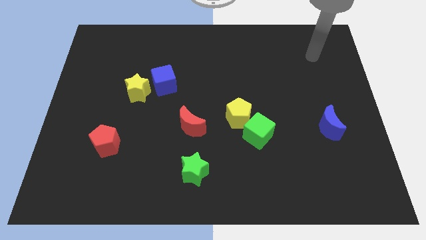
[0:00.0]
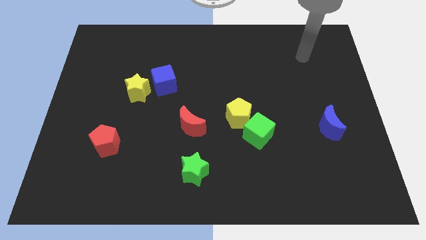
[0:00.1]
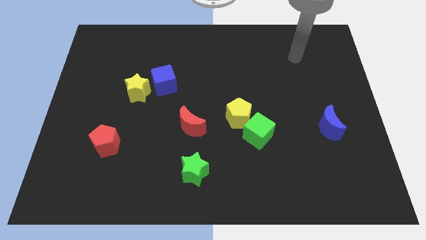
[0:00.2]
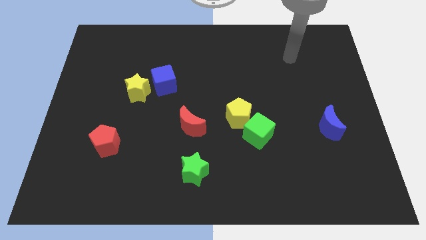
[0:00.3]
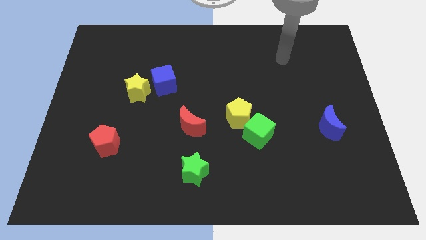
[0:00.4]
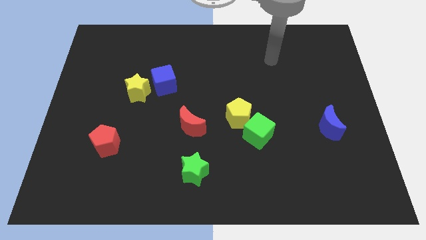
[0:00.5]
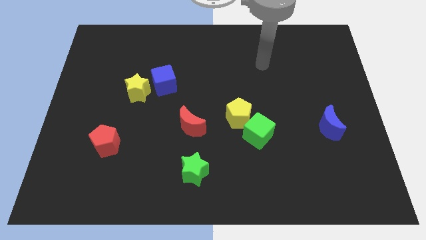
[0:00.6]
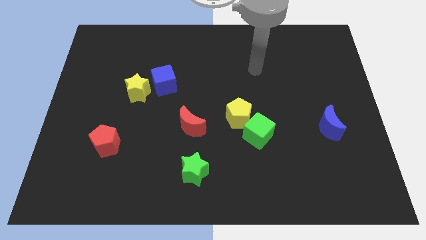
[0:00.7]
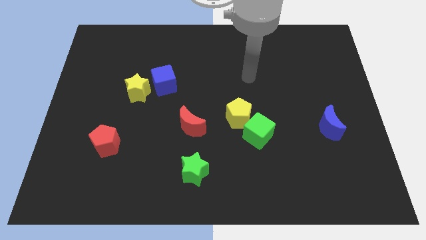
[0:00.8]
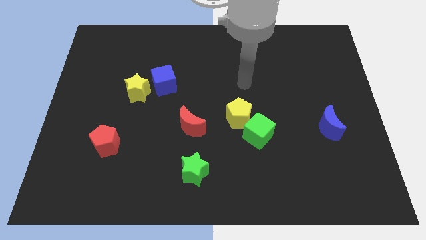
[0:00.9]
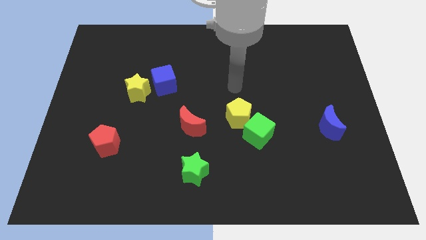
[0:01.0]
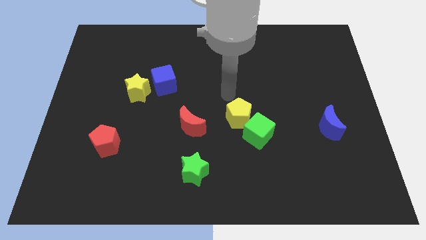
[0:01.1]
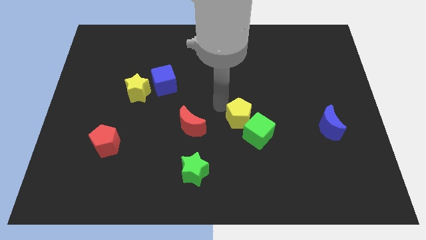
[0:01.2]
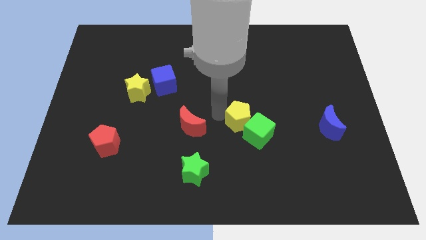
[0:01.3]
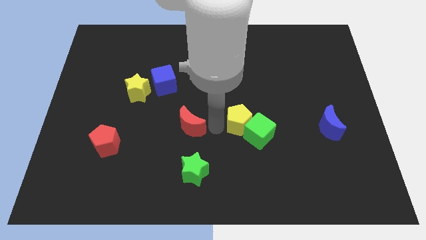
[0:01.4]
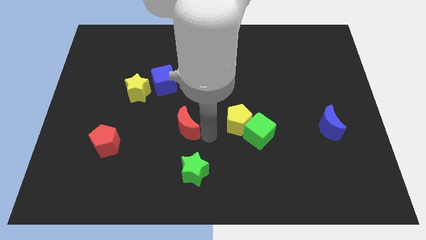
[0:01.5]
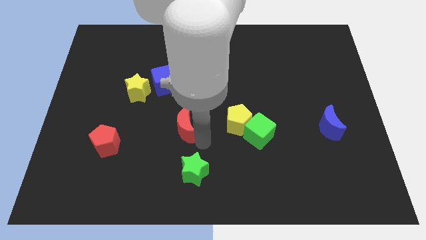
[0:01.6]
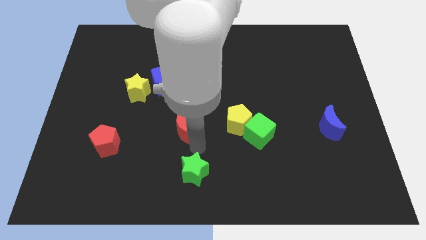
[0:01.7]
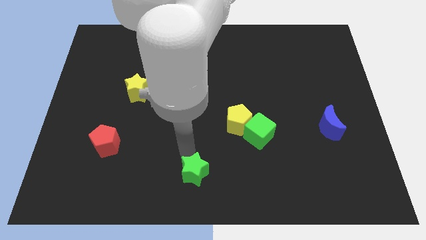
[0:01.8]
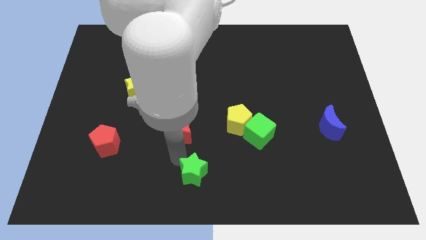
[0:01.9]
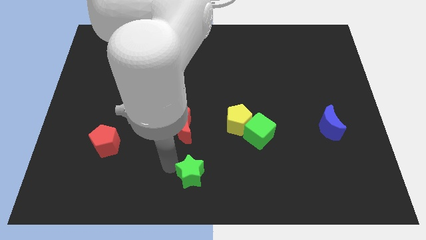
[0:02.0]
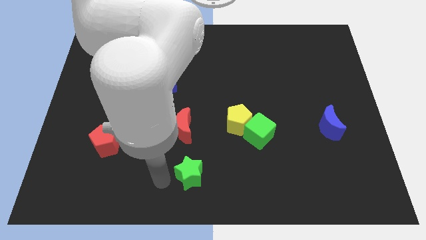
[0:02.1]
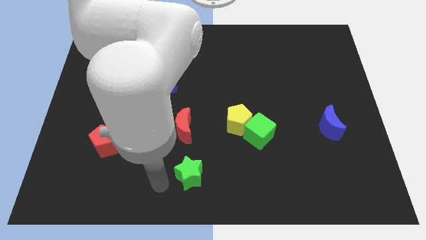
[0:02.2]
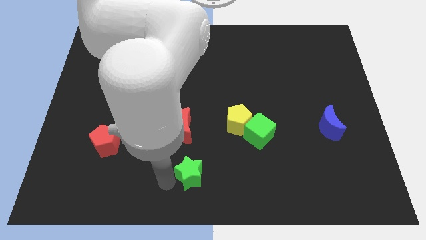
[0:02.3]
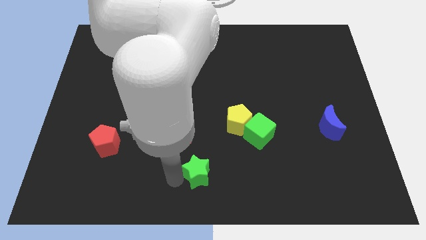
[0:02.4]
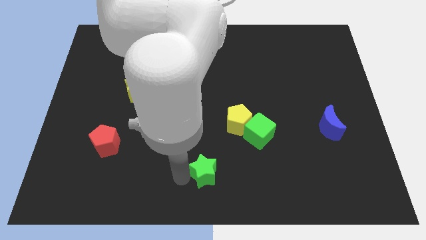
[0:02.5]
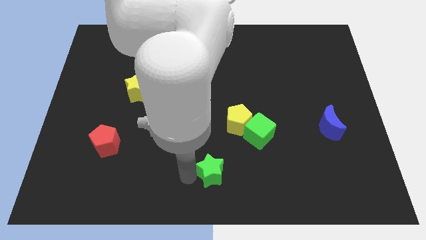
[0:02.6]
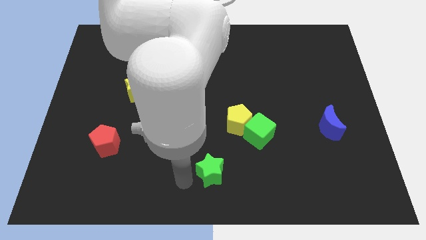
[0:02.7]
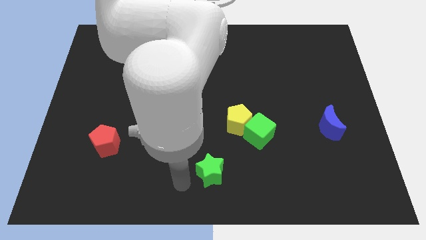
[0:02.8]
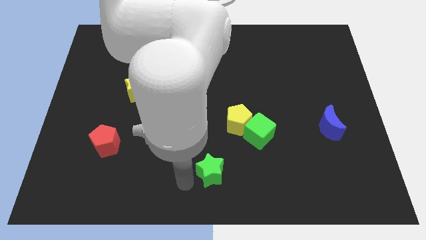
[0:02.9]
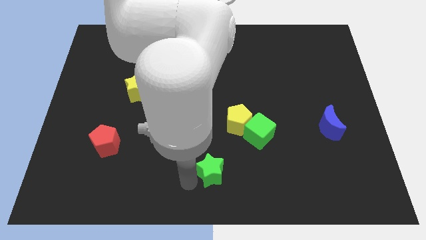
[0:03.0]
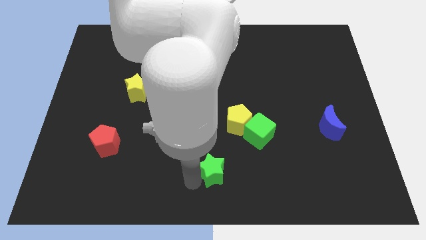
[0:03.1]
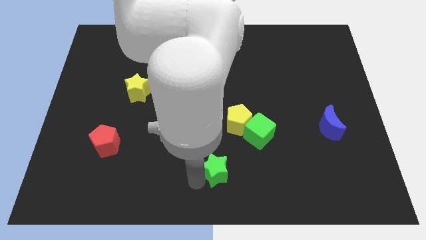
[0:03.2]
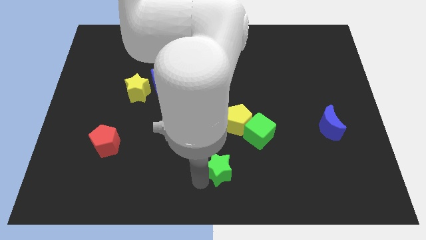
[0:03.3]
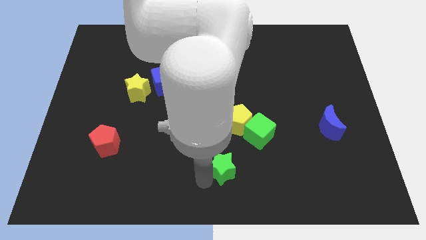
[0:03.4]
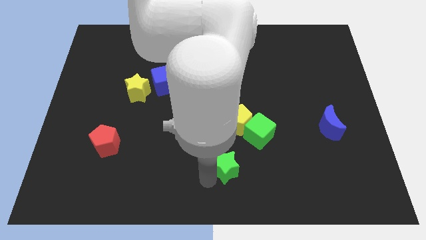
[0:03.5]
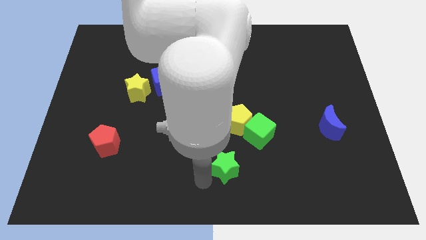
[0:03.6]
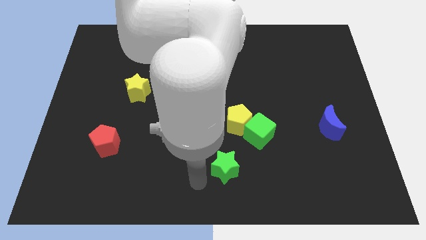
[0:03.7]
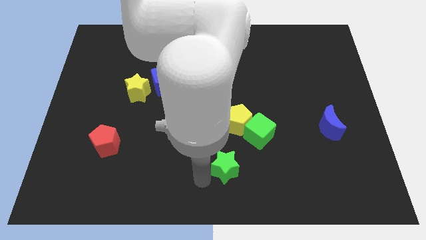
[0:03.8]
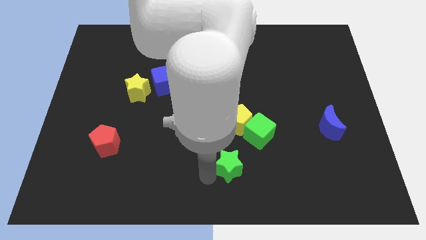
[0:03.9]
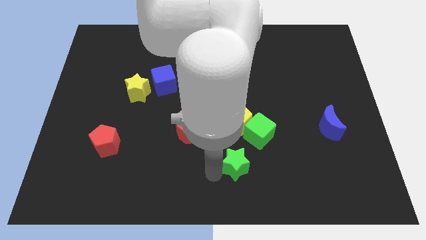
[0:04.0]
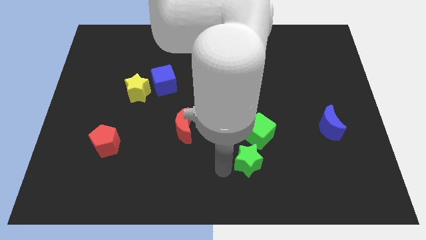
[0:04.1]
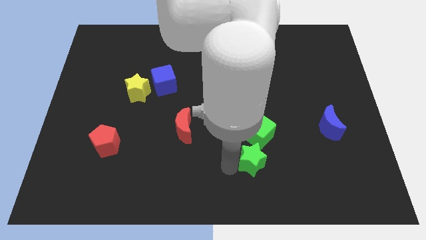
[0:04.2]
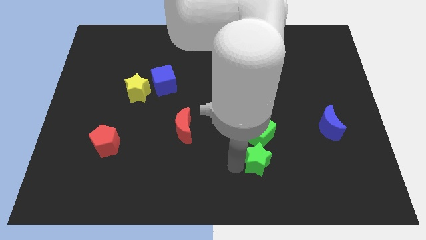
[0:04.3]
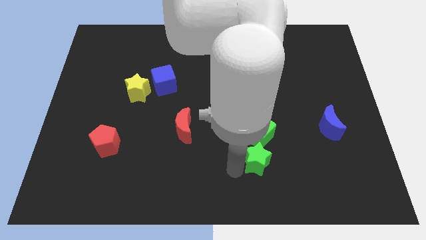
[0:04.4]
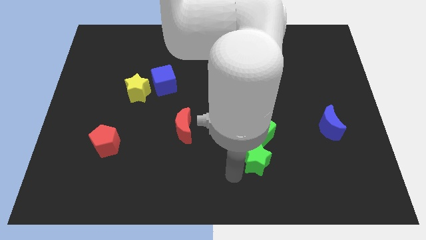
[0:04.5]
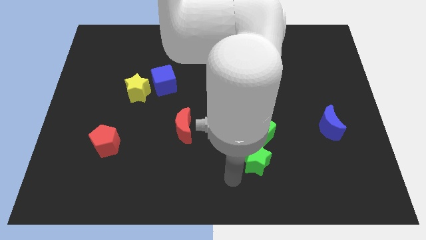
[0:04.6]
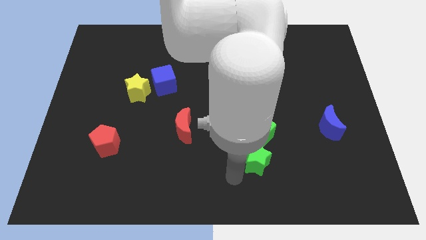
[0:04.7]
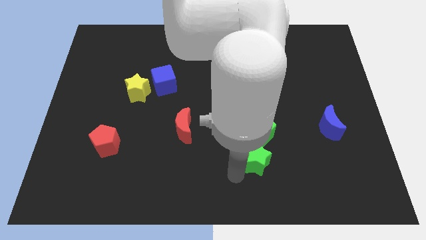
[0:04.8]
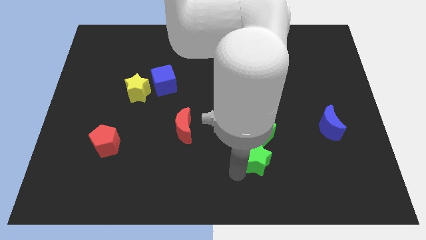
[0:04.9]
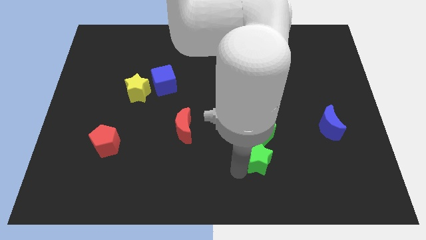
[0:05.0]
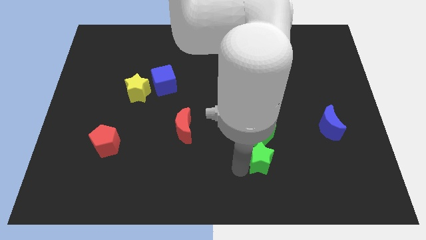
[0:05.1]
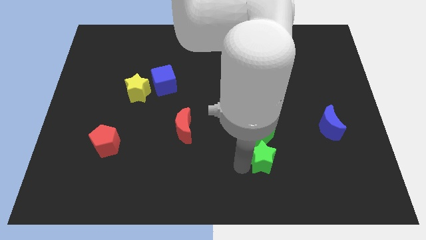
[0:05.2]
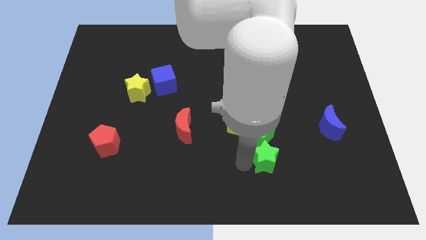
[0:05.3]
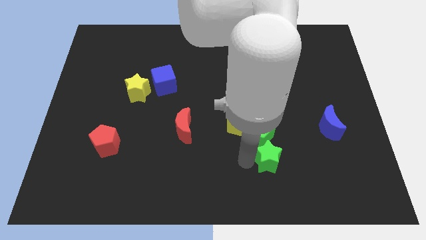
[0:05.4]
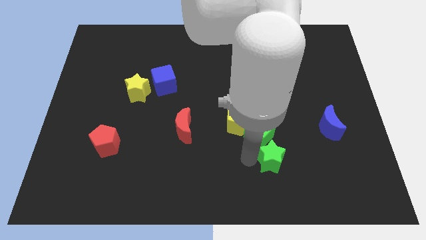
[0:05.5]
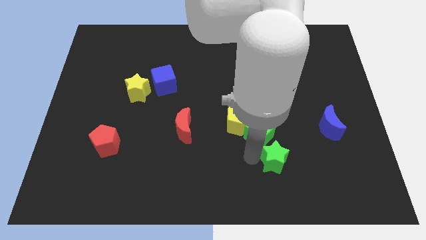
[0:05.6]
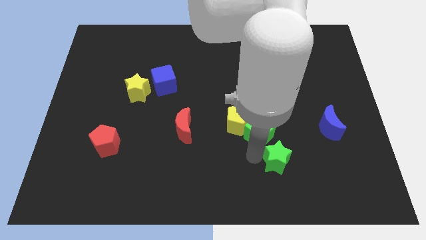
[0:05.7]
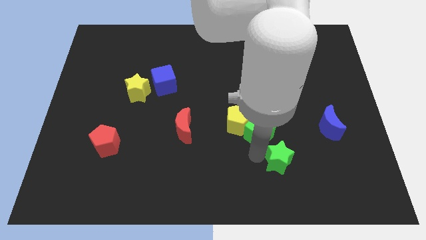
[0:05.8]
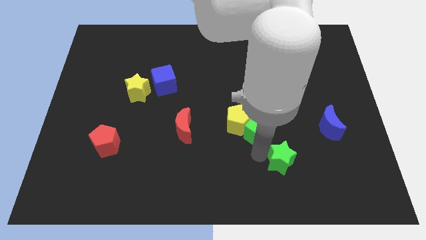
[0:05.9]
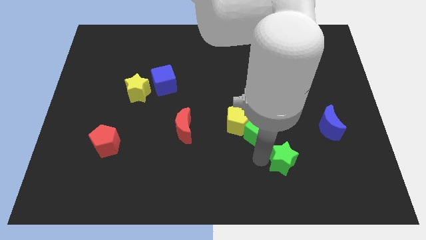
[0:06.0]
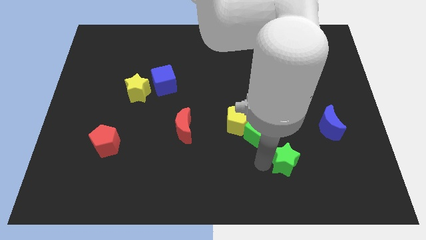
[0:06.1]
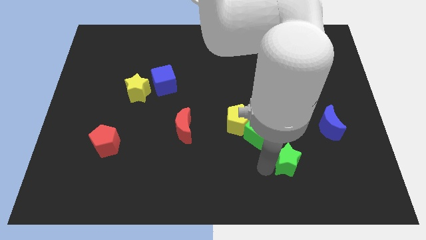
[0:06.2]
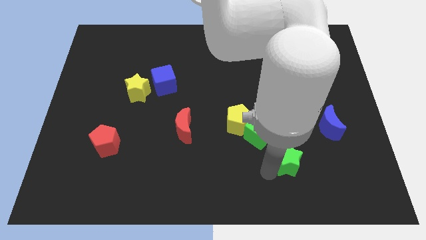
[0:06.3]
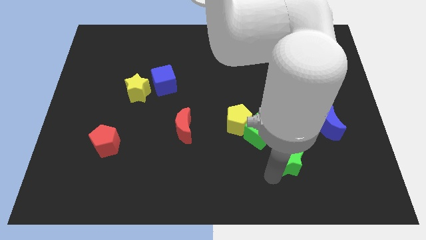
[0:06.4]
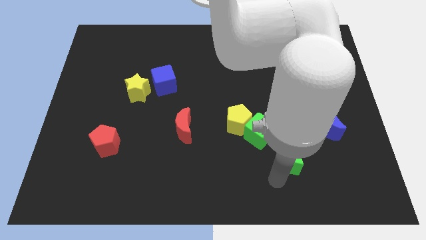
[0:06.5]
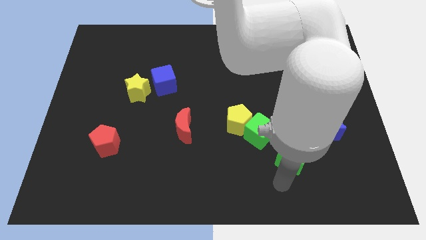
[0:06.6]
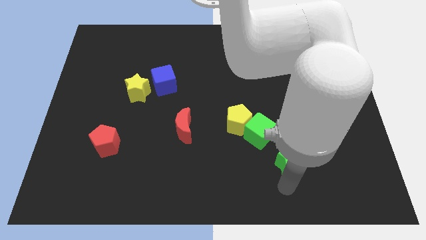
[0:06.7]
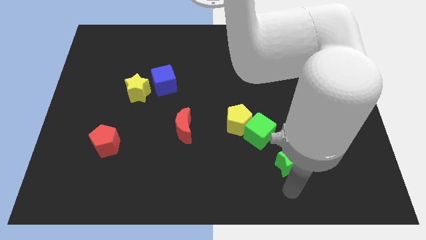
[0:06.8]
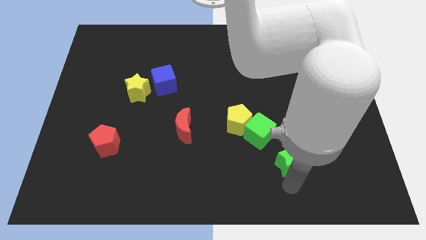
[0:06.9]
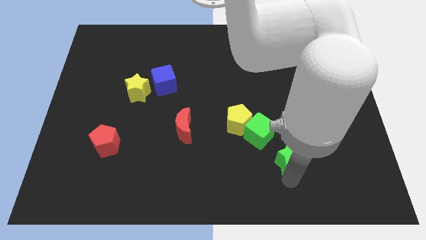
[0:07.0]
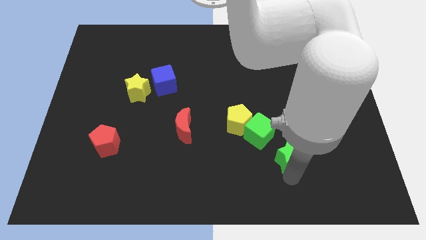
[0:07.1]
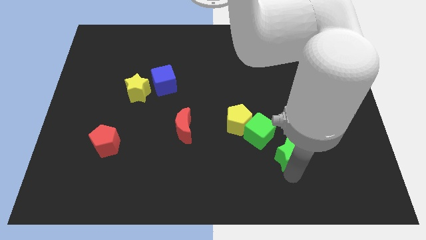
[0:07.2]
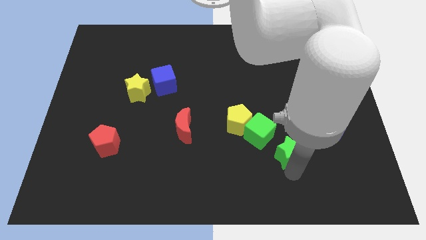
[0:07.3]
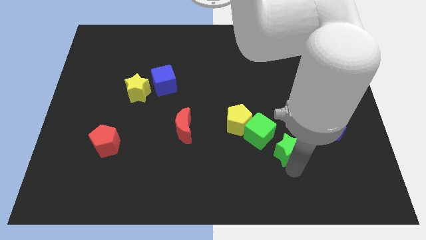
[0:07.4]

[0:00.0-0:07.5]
move the green star right of the green cube
